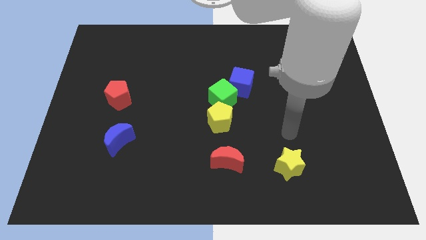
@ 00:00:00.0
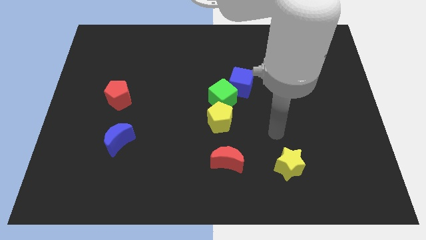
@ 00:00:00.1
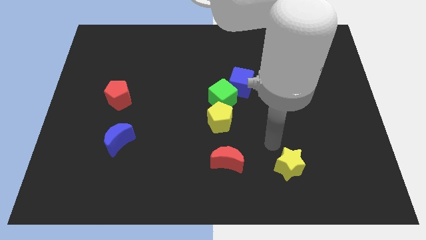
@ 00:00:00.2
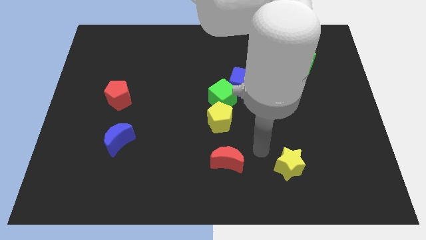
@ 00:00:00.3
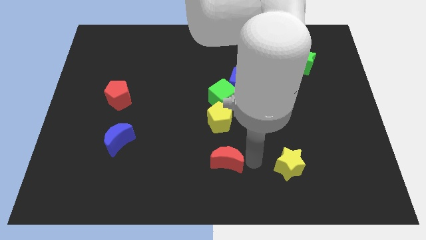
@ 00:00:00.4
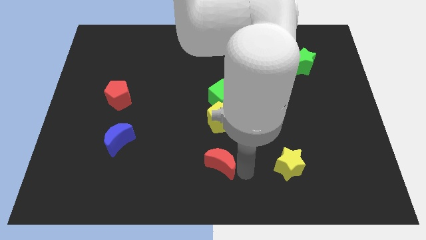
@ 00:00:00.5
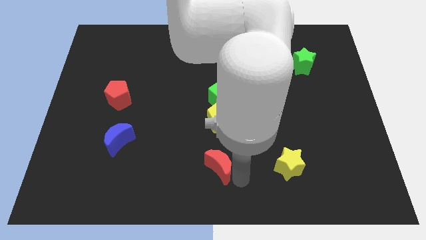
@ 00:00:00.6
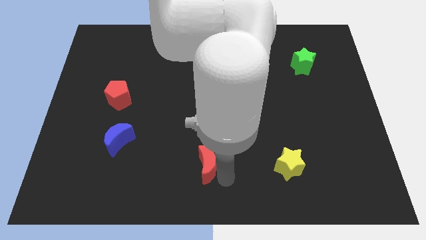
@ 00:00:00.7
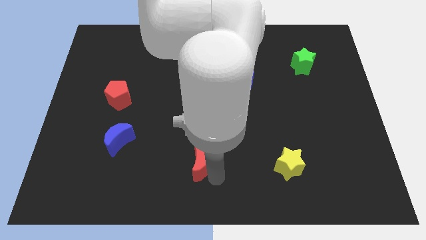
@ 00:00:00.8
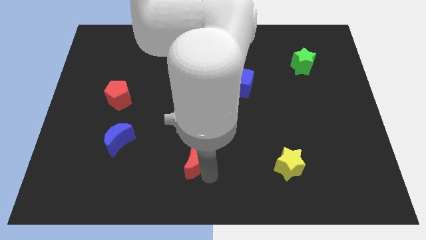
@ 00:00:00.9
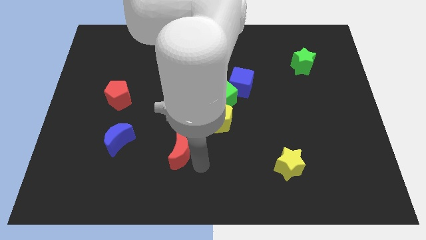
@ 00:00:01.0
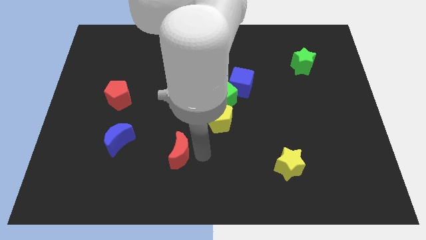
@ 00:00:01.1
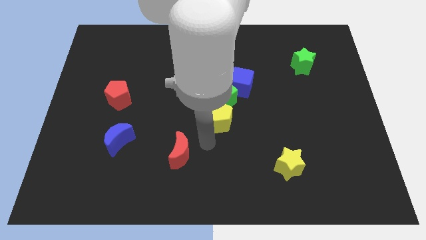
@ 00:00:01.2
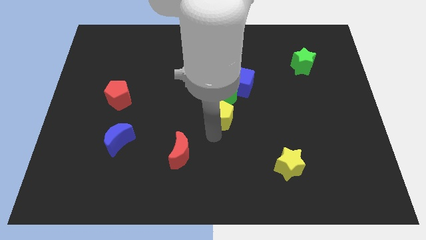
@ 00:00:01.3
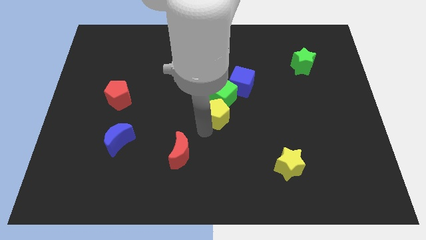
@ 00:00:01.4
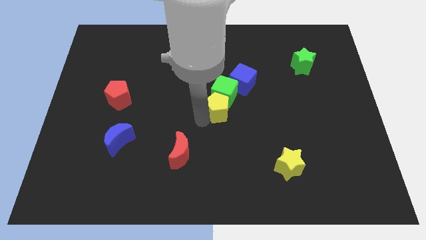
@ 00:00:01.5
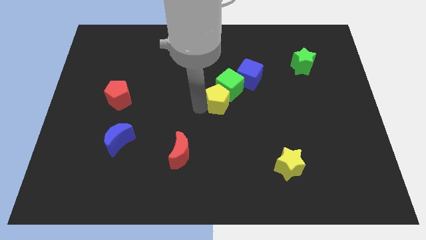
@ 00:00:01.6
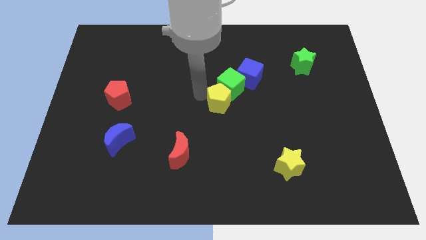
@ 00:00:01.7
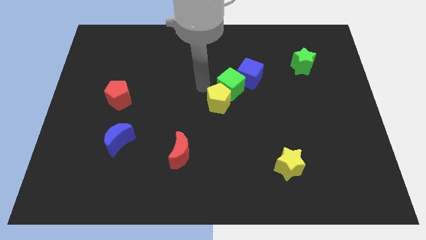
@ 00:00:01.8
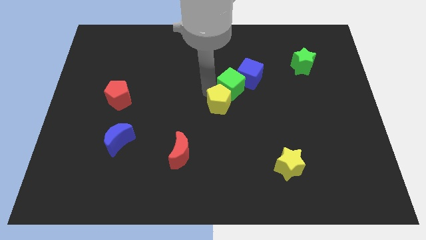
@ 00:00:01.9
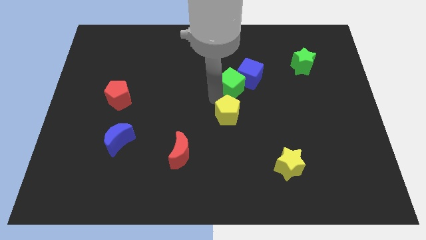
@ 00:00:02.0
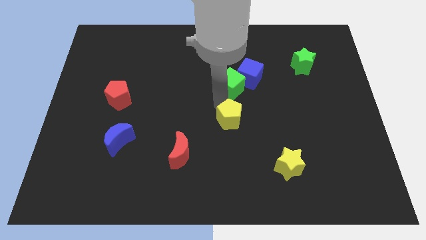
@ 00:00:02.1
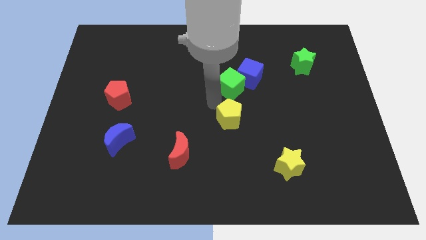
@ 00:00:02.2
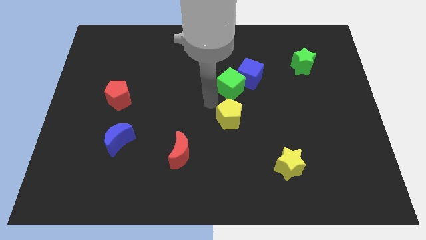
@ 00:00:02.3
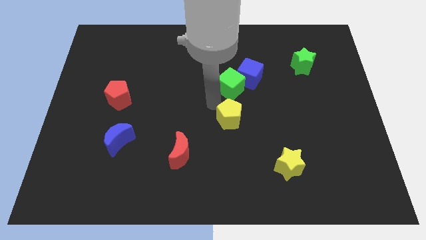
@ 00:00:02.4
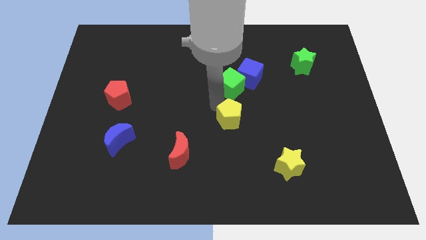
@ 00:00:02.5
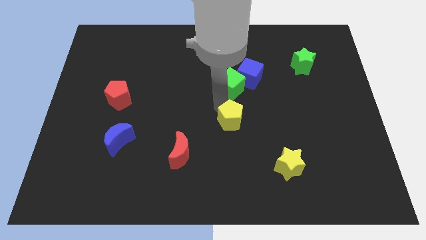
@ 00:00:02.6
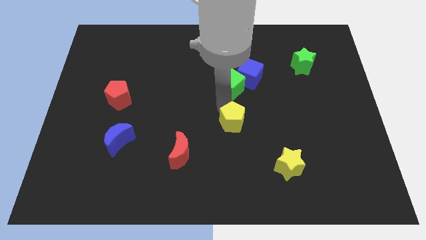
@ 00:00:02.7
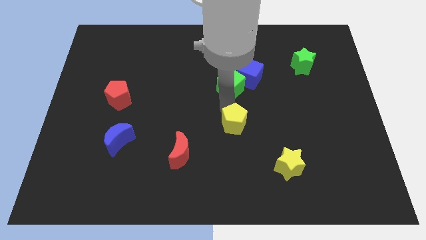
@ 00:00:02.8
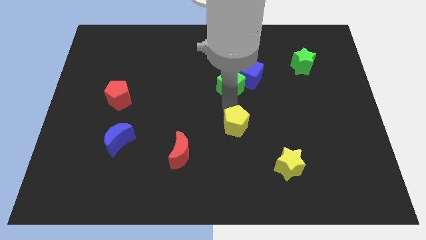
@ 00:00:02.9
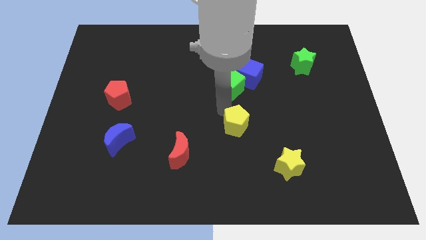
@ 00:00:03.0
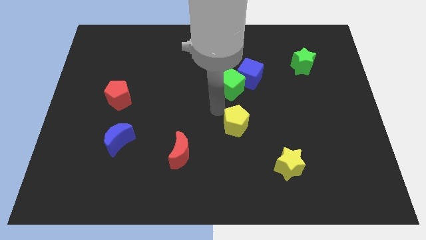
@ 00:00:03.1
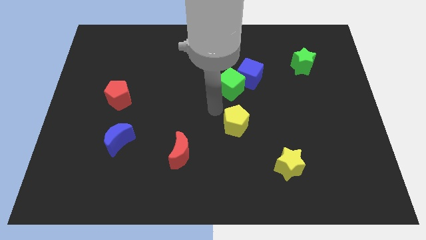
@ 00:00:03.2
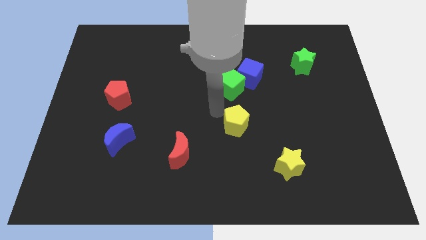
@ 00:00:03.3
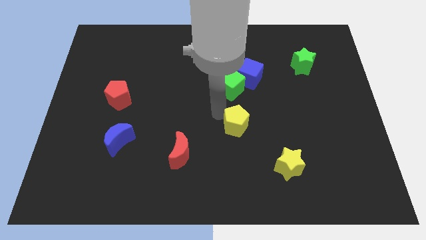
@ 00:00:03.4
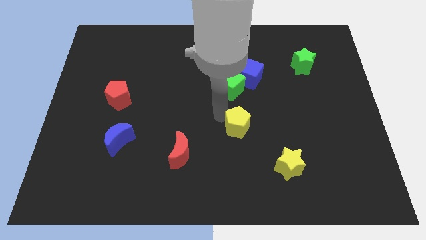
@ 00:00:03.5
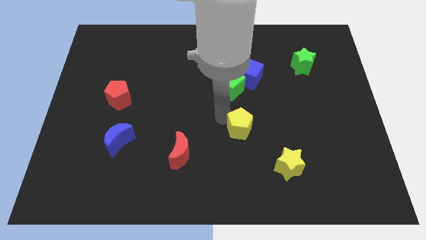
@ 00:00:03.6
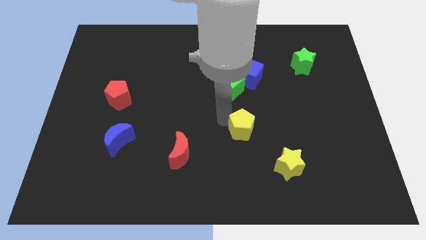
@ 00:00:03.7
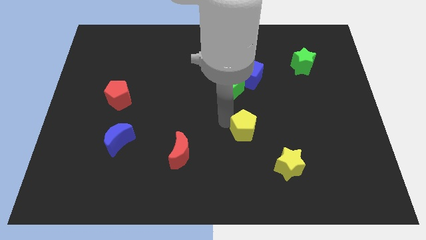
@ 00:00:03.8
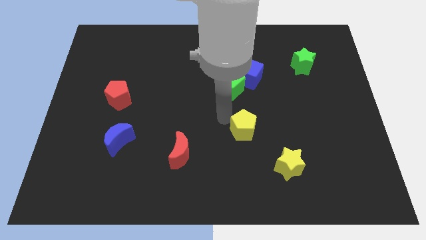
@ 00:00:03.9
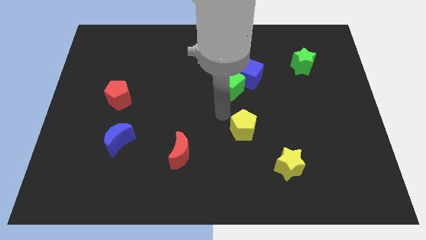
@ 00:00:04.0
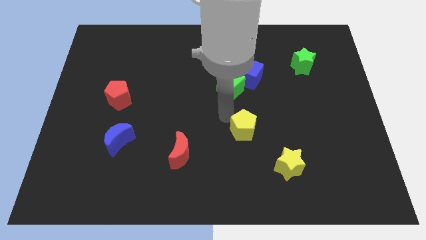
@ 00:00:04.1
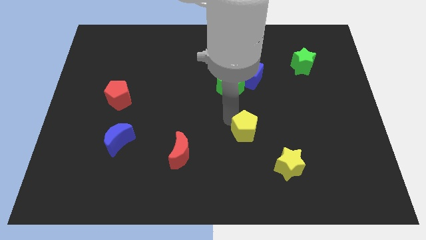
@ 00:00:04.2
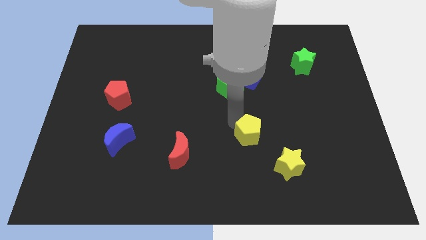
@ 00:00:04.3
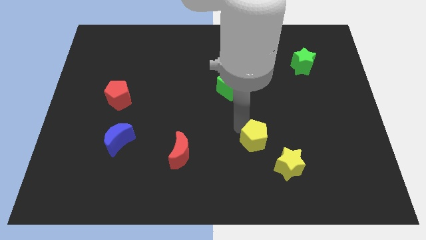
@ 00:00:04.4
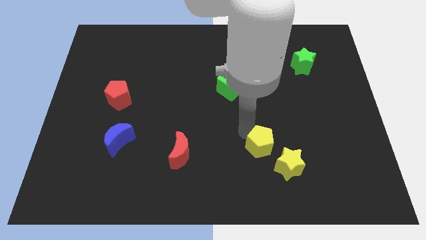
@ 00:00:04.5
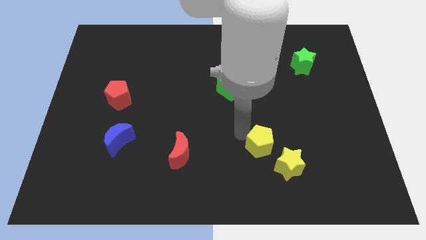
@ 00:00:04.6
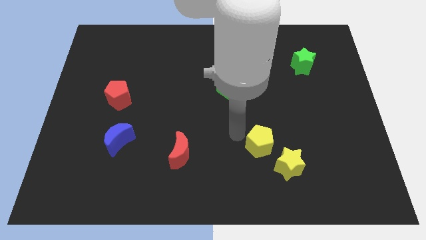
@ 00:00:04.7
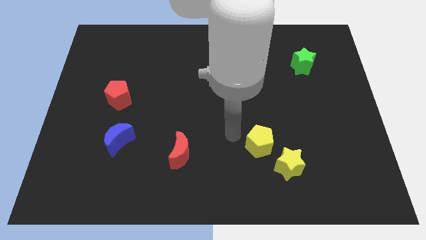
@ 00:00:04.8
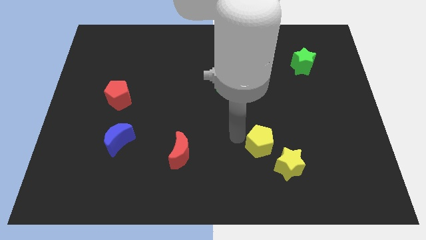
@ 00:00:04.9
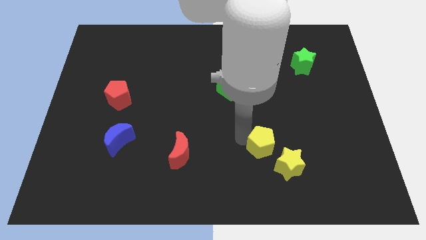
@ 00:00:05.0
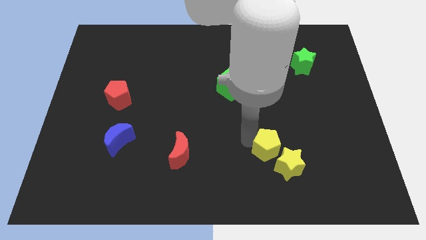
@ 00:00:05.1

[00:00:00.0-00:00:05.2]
slide the yellow pentagon towards the yellow star

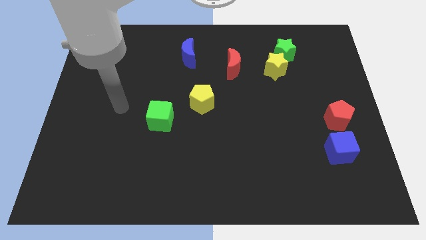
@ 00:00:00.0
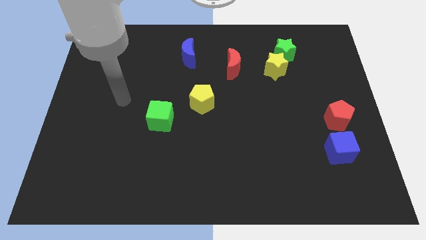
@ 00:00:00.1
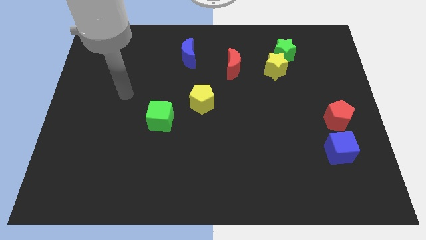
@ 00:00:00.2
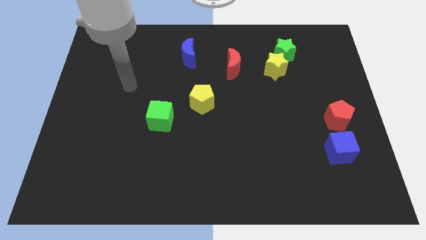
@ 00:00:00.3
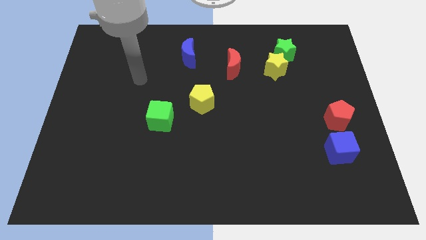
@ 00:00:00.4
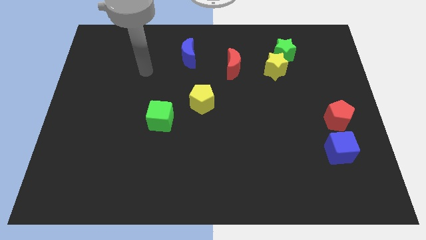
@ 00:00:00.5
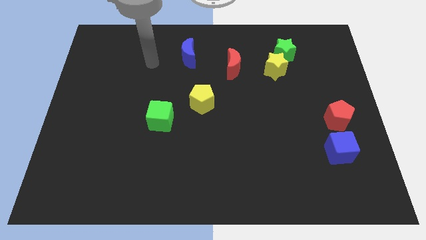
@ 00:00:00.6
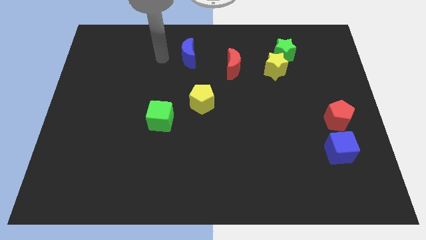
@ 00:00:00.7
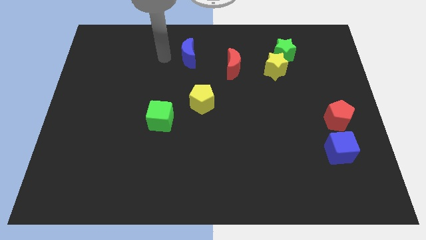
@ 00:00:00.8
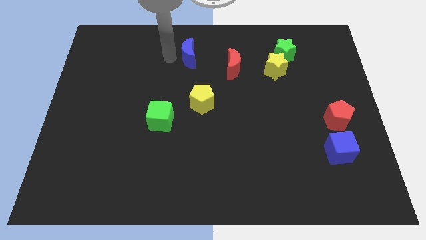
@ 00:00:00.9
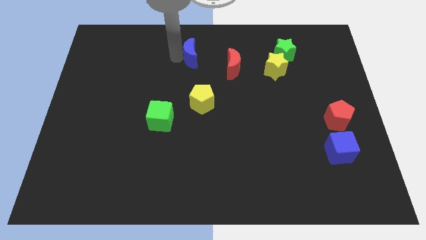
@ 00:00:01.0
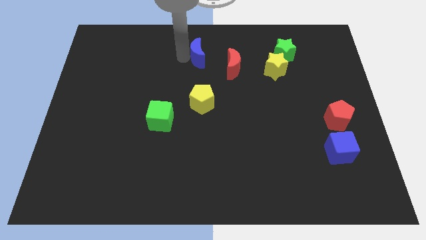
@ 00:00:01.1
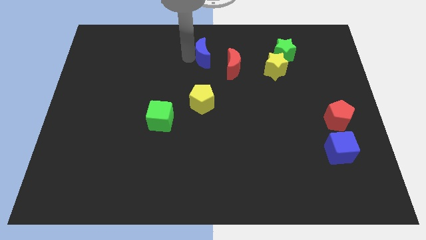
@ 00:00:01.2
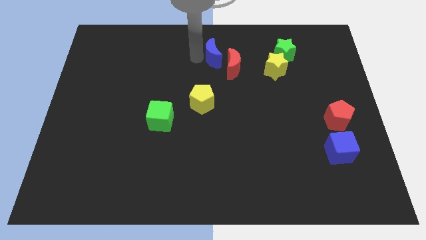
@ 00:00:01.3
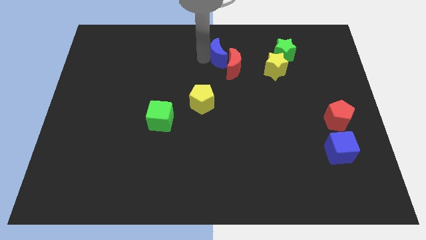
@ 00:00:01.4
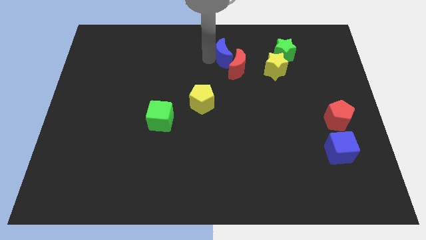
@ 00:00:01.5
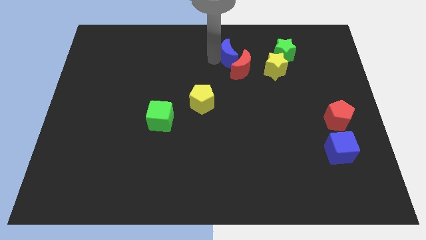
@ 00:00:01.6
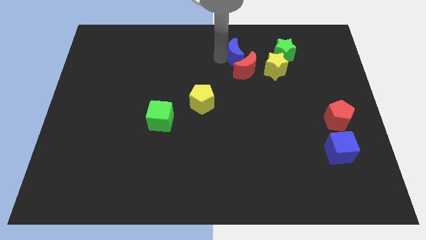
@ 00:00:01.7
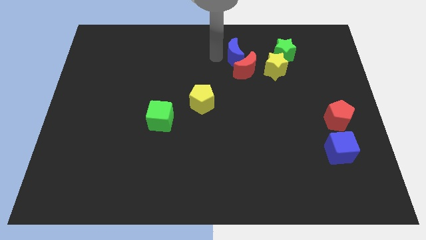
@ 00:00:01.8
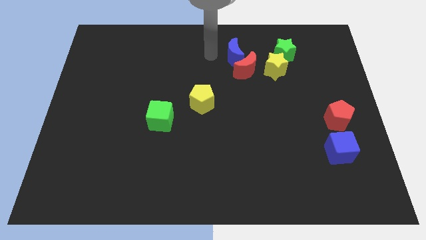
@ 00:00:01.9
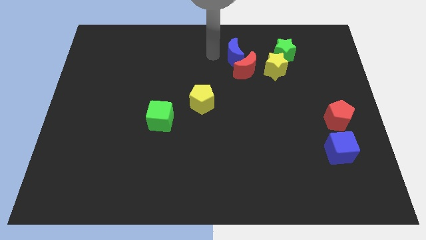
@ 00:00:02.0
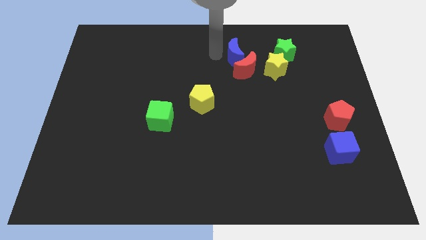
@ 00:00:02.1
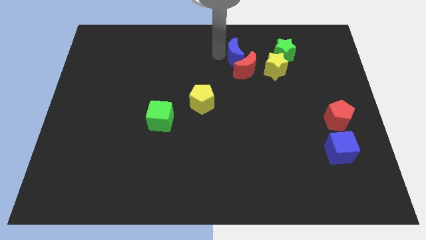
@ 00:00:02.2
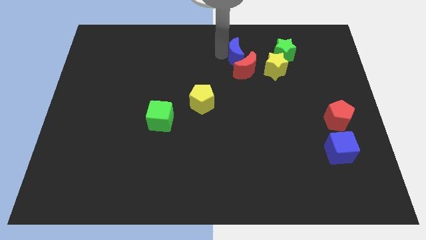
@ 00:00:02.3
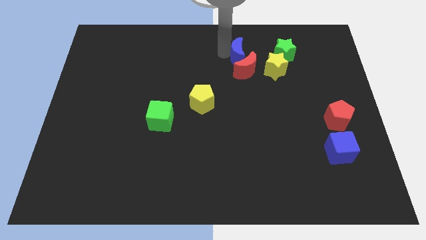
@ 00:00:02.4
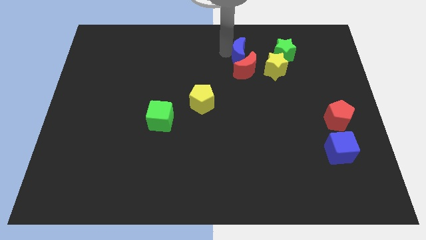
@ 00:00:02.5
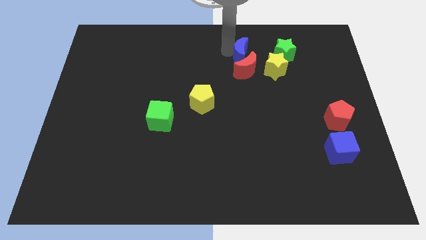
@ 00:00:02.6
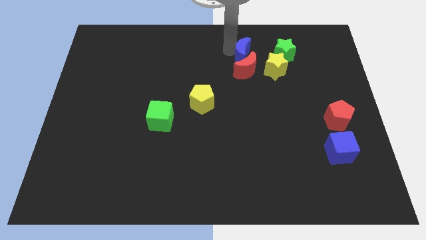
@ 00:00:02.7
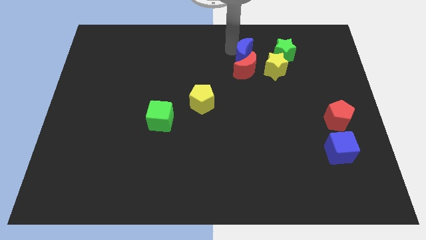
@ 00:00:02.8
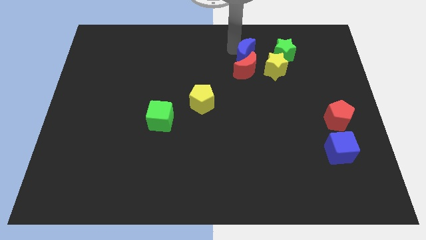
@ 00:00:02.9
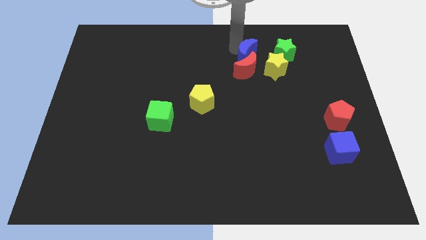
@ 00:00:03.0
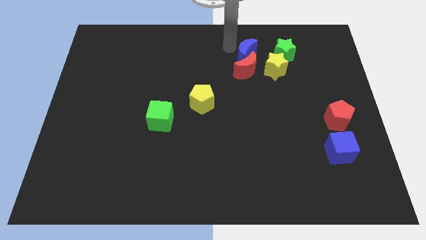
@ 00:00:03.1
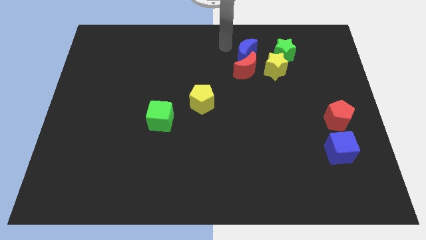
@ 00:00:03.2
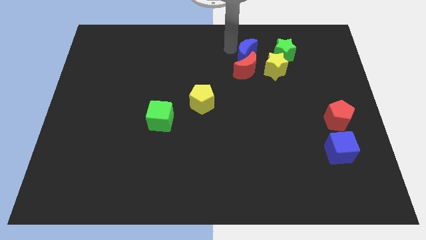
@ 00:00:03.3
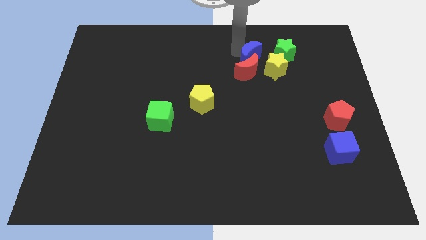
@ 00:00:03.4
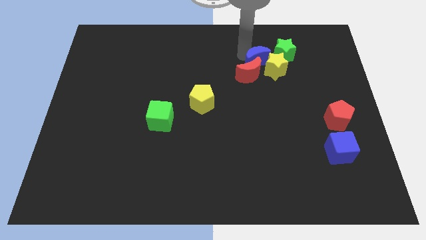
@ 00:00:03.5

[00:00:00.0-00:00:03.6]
move the blue moon close to the yellow star
